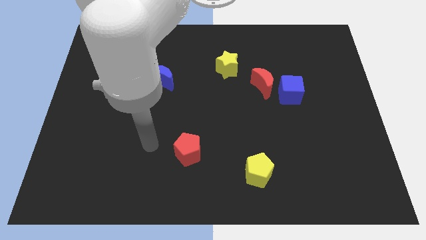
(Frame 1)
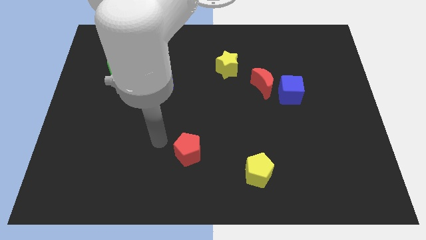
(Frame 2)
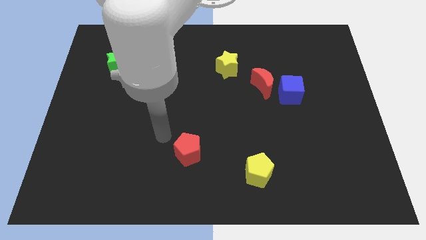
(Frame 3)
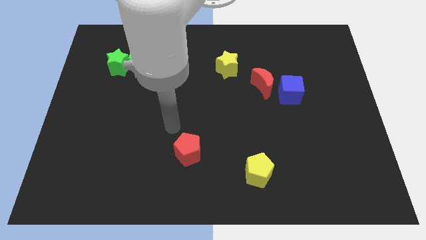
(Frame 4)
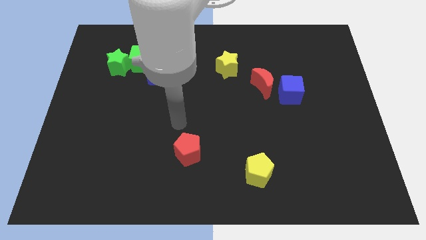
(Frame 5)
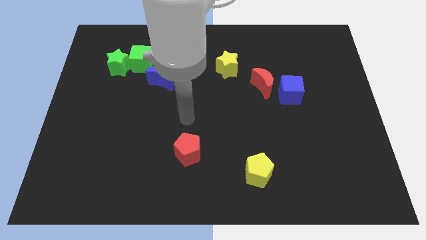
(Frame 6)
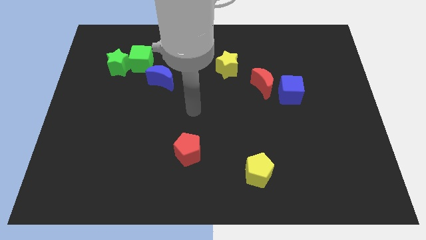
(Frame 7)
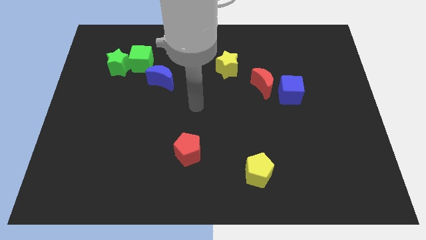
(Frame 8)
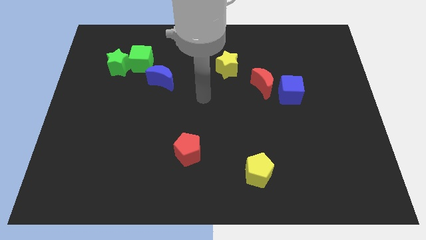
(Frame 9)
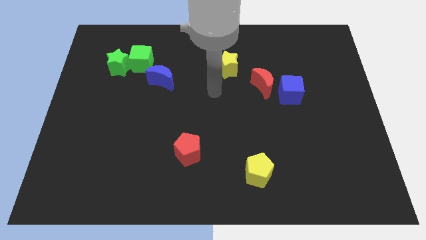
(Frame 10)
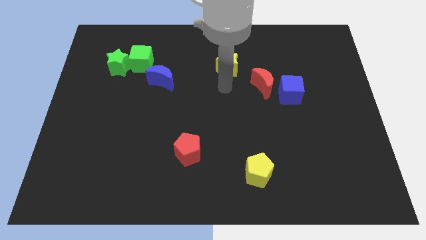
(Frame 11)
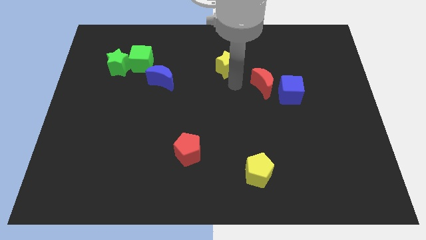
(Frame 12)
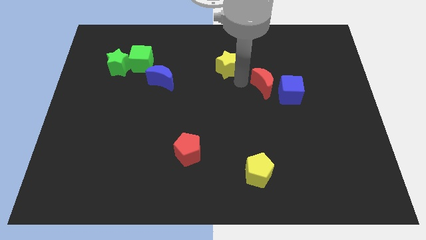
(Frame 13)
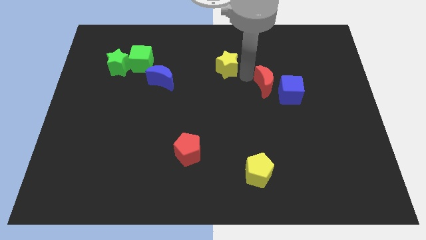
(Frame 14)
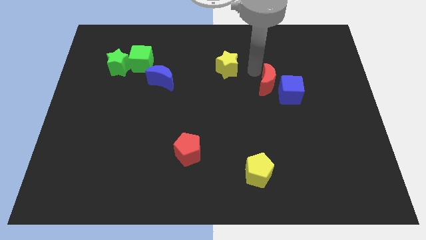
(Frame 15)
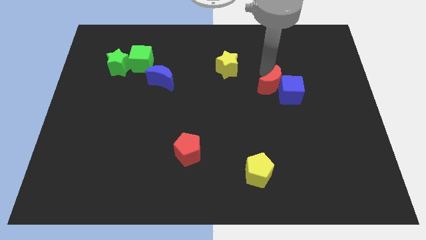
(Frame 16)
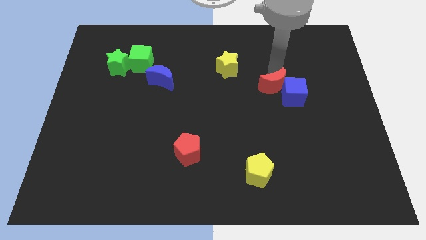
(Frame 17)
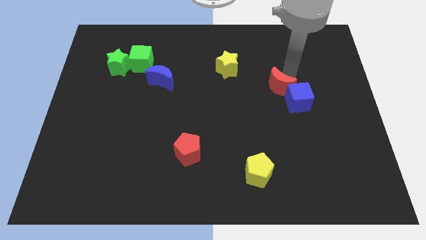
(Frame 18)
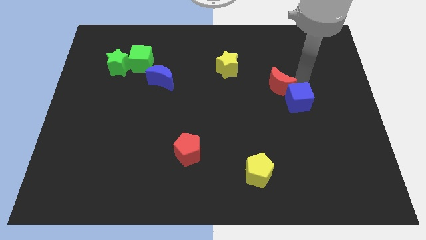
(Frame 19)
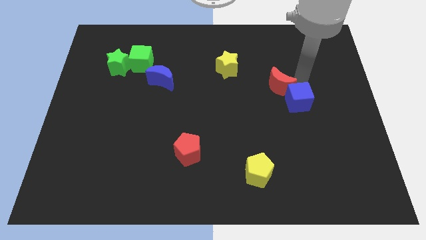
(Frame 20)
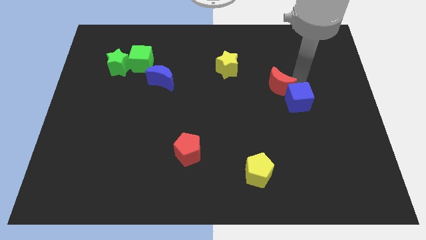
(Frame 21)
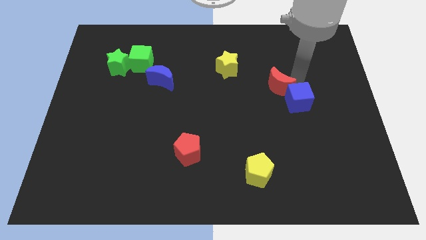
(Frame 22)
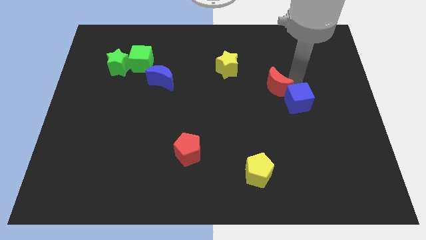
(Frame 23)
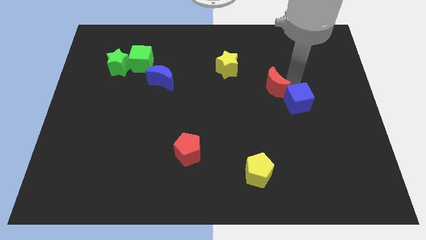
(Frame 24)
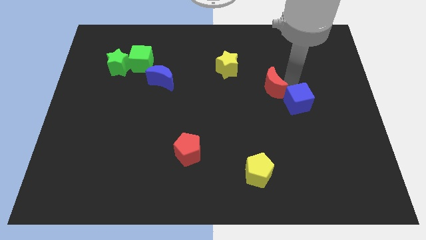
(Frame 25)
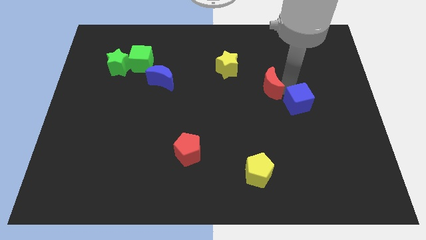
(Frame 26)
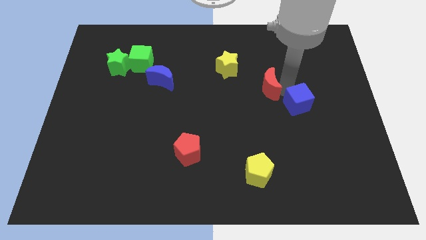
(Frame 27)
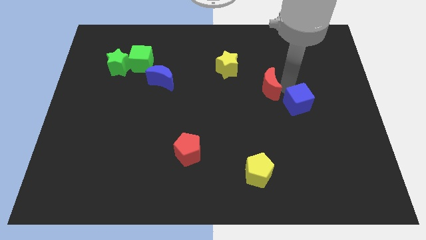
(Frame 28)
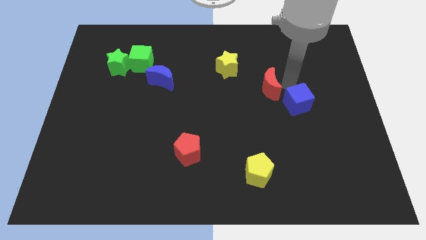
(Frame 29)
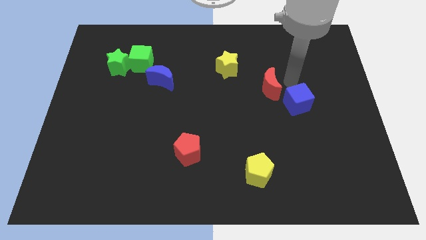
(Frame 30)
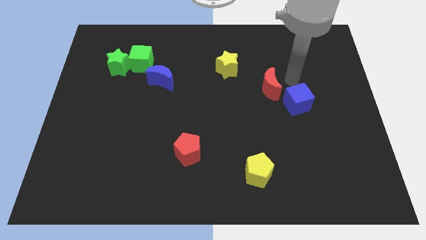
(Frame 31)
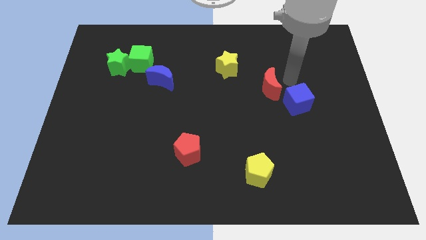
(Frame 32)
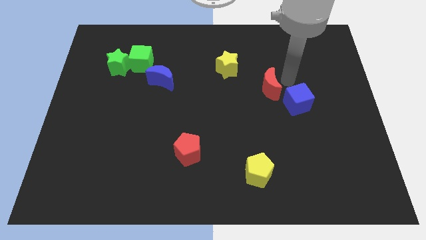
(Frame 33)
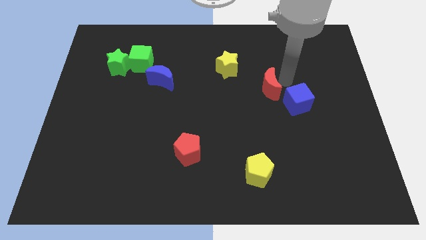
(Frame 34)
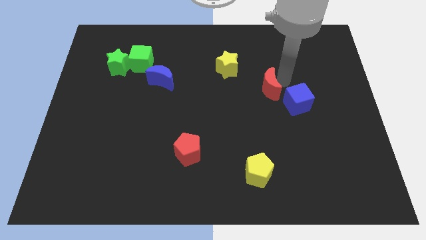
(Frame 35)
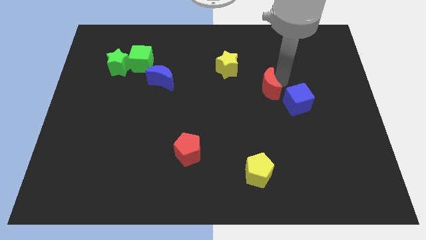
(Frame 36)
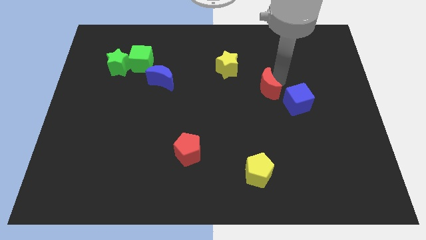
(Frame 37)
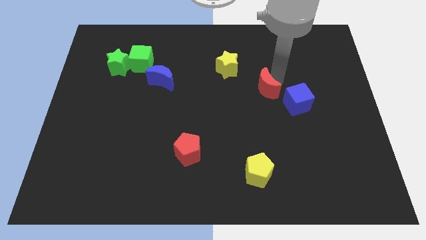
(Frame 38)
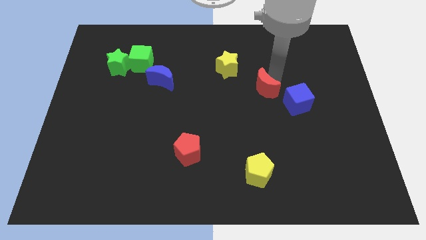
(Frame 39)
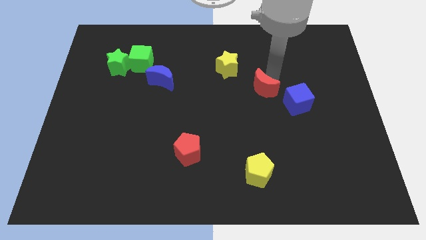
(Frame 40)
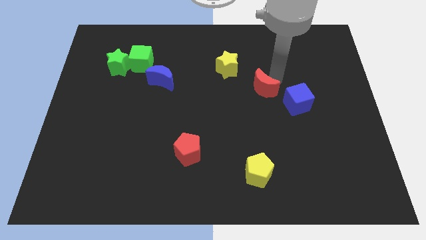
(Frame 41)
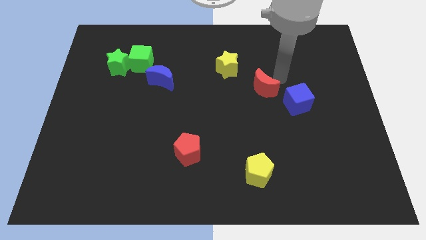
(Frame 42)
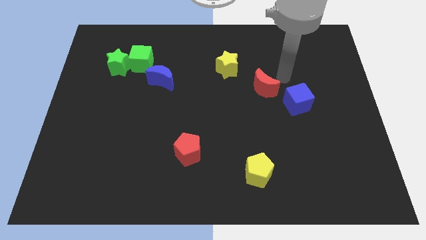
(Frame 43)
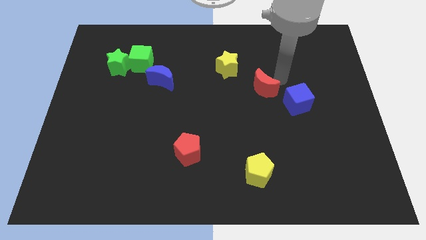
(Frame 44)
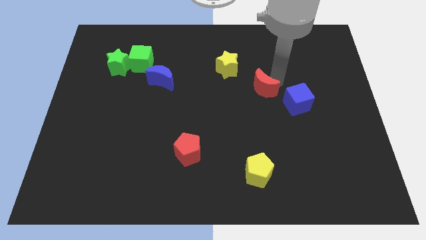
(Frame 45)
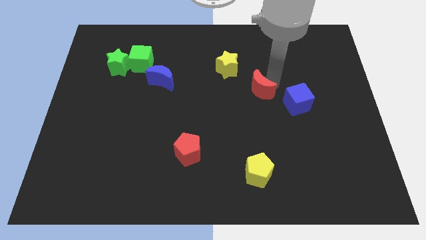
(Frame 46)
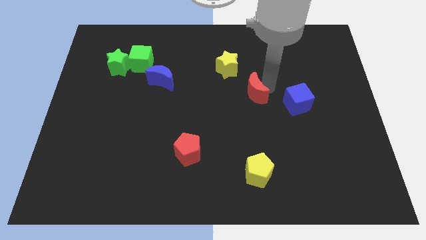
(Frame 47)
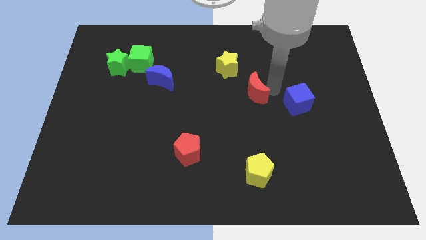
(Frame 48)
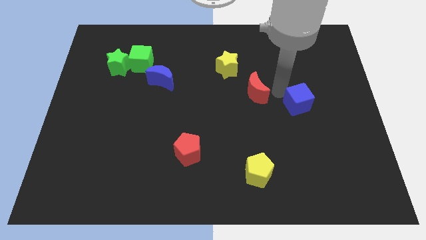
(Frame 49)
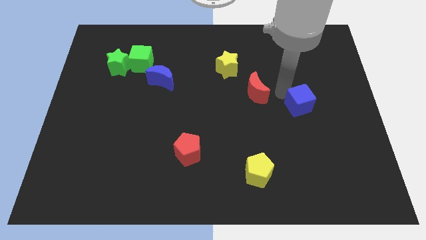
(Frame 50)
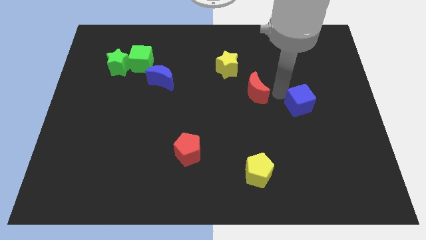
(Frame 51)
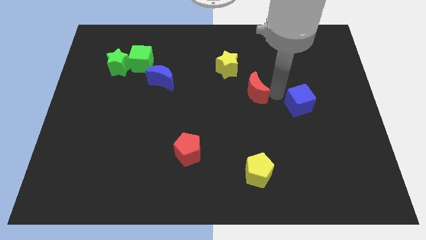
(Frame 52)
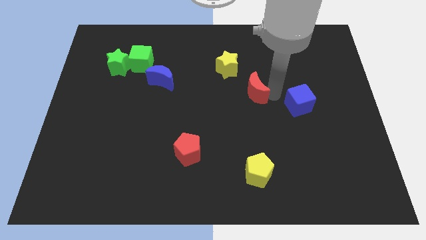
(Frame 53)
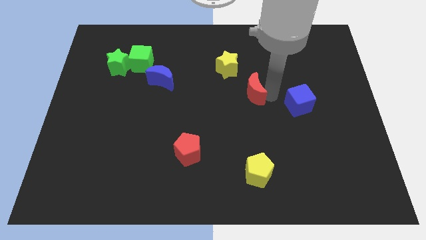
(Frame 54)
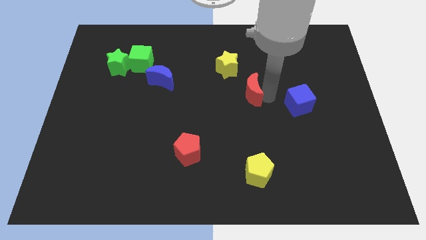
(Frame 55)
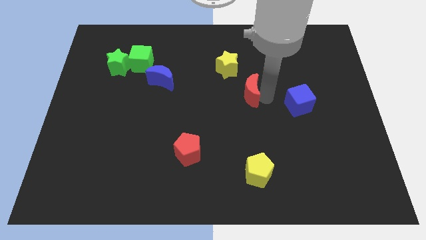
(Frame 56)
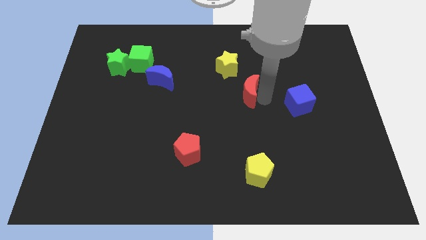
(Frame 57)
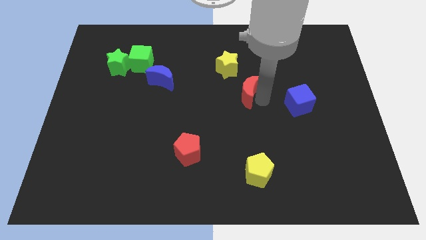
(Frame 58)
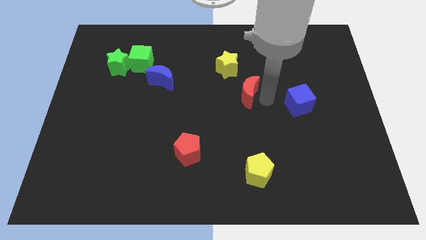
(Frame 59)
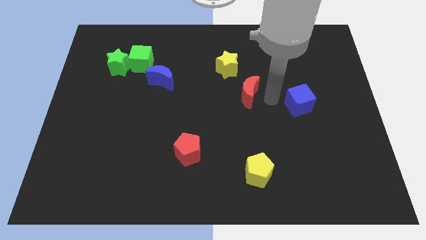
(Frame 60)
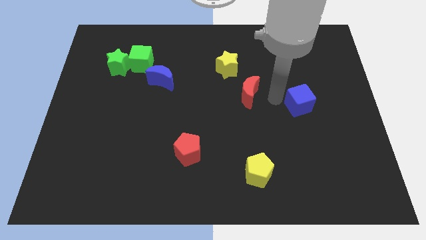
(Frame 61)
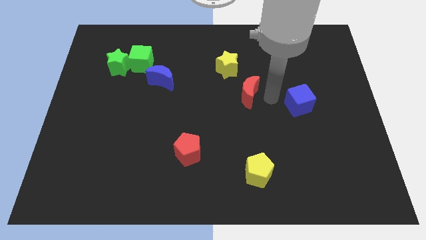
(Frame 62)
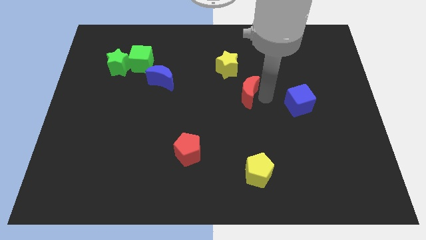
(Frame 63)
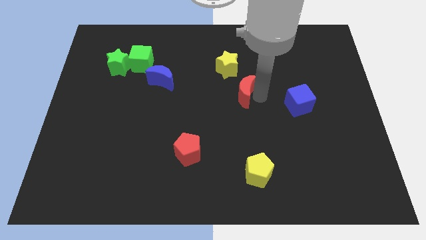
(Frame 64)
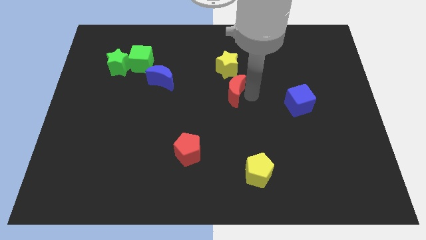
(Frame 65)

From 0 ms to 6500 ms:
push the red moon left slightly

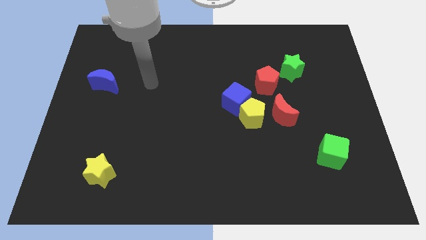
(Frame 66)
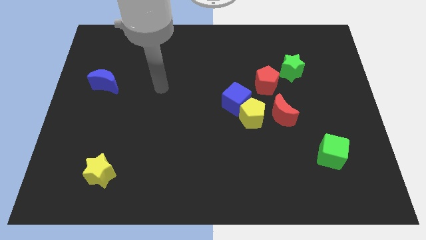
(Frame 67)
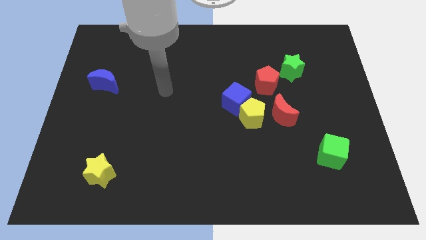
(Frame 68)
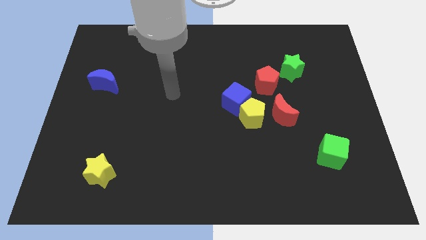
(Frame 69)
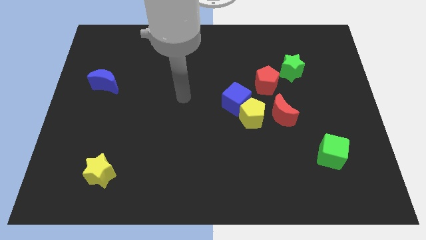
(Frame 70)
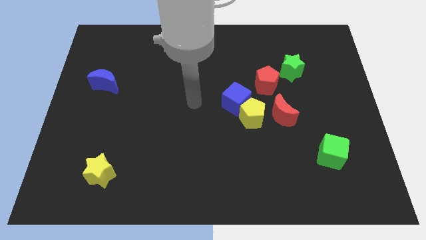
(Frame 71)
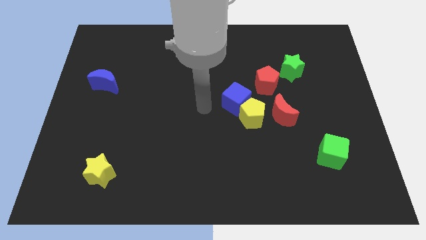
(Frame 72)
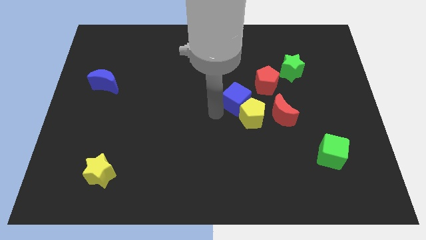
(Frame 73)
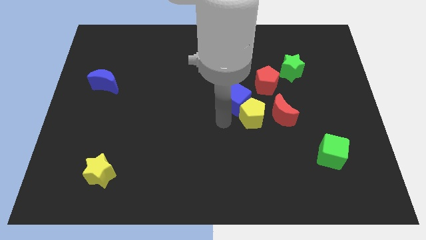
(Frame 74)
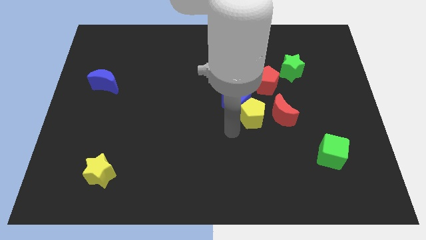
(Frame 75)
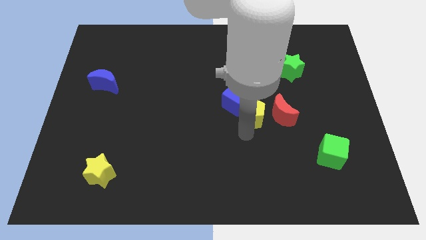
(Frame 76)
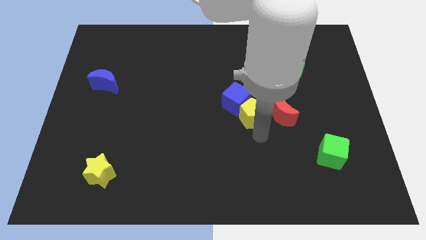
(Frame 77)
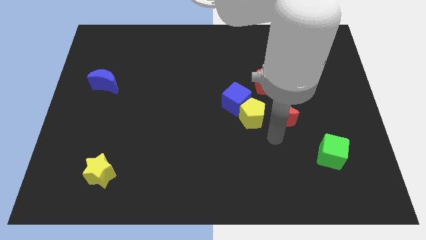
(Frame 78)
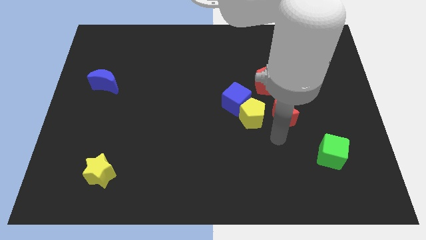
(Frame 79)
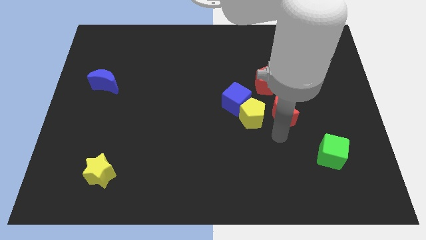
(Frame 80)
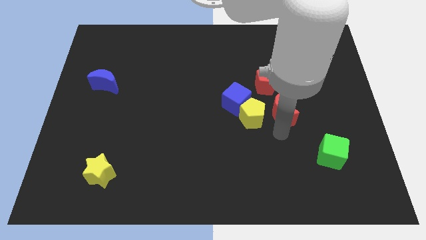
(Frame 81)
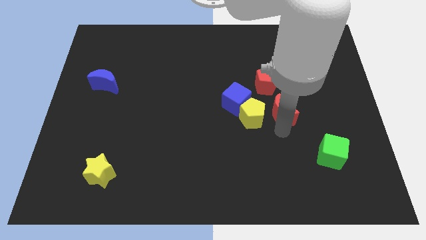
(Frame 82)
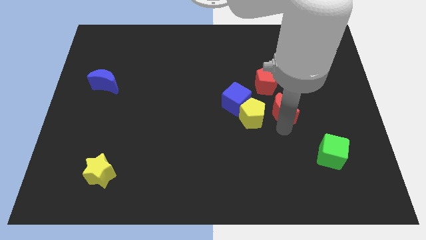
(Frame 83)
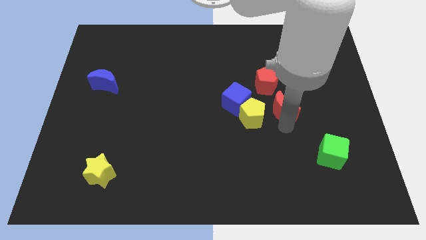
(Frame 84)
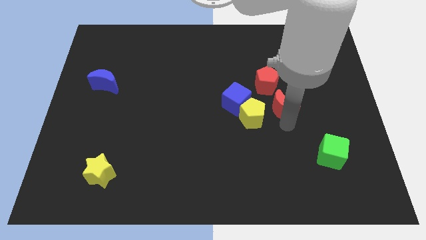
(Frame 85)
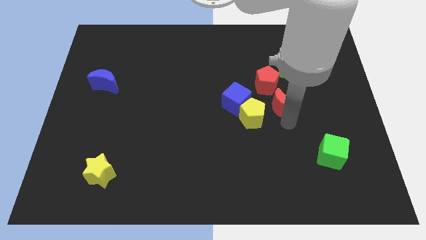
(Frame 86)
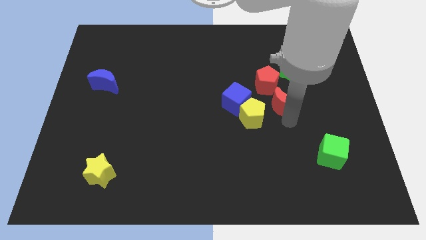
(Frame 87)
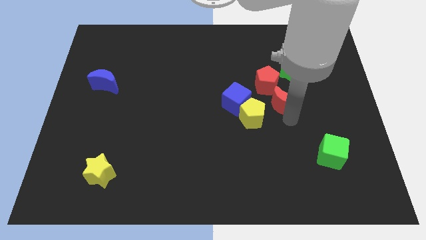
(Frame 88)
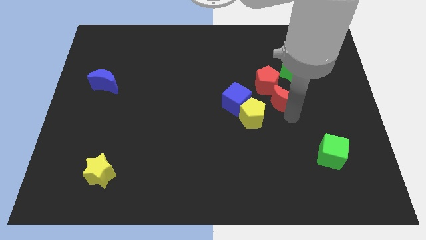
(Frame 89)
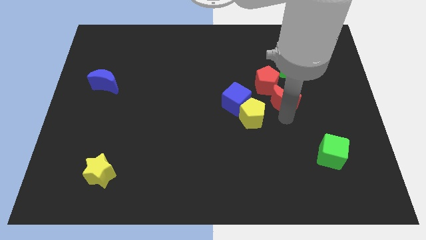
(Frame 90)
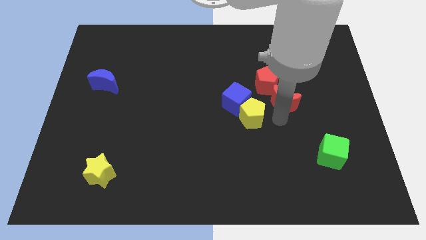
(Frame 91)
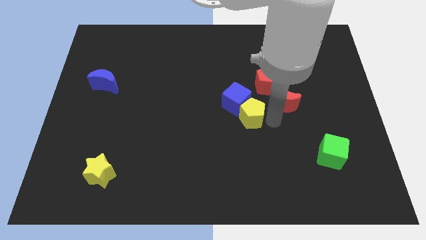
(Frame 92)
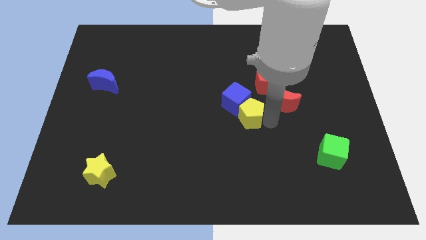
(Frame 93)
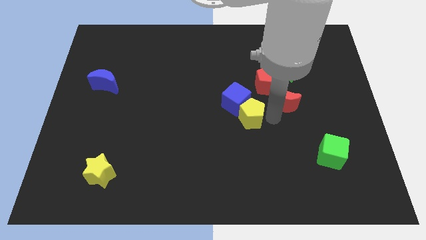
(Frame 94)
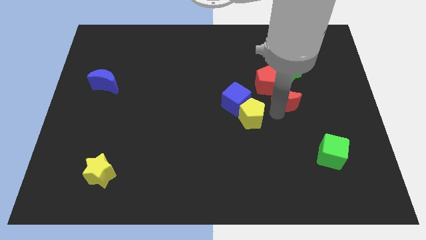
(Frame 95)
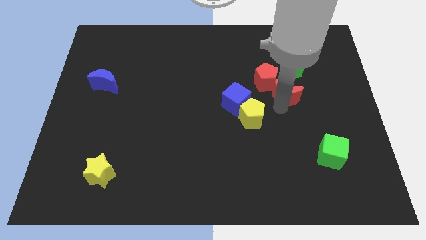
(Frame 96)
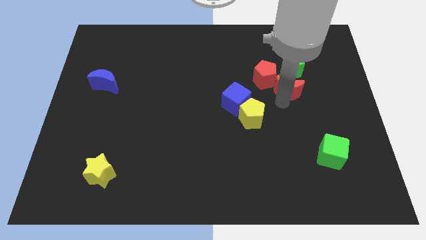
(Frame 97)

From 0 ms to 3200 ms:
slide the red moon upwards a bit
